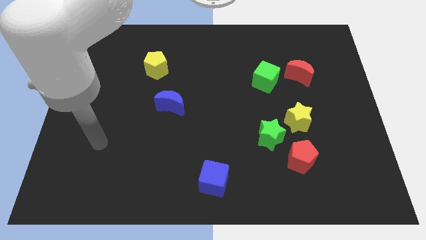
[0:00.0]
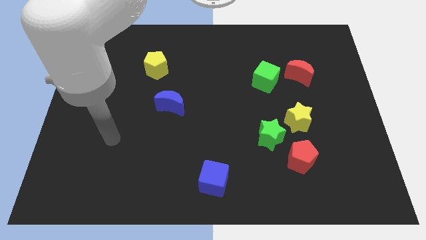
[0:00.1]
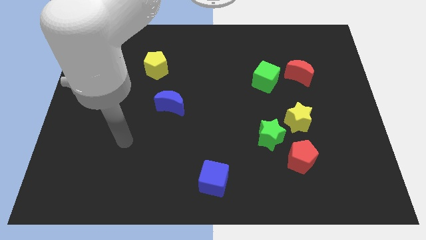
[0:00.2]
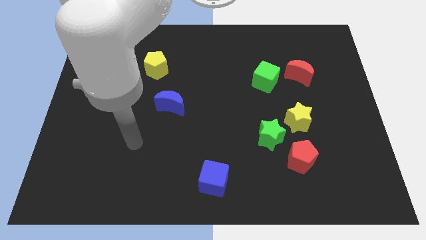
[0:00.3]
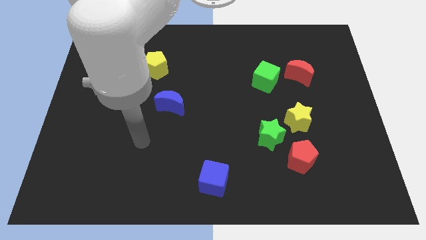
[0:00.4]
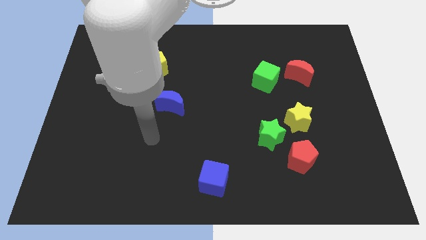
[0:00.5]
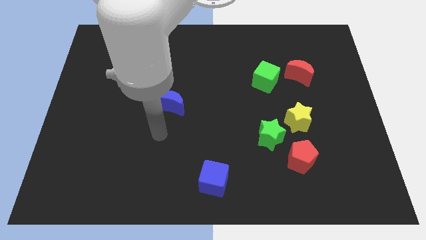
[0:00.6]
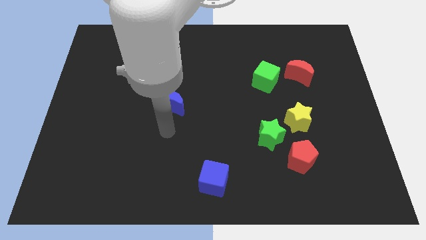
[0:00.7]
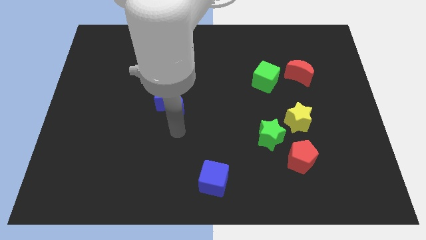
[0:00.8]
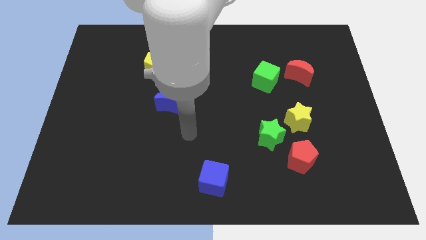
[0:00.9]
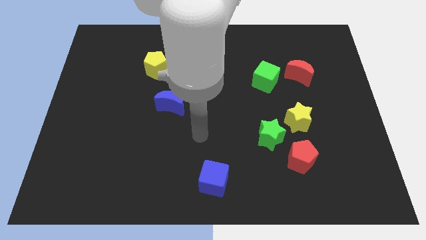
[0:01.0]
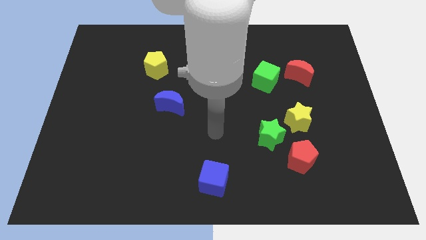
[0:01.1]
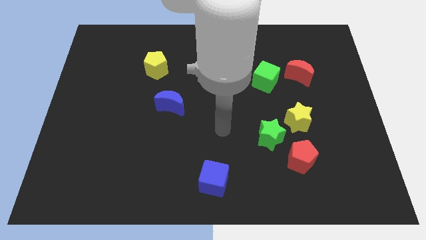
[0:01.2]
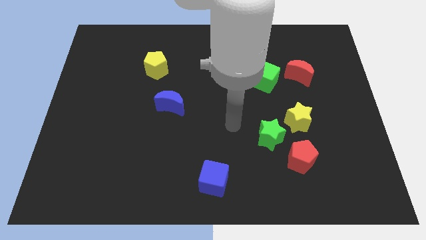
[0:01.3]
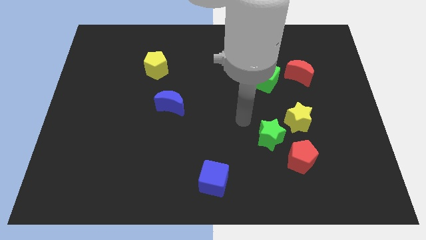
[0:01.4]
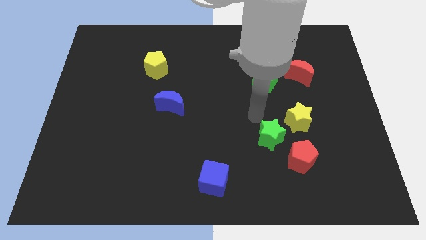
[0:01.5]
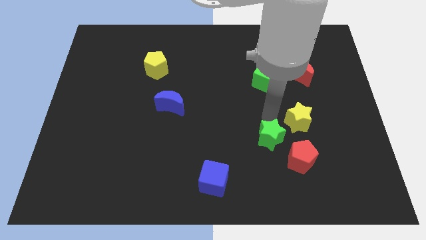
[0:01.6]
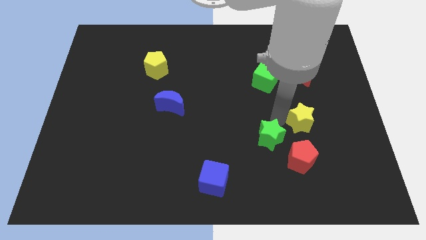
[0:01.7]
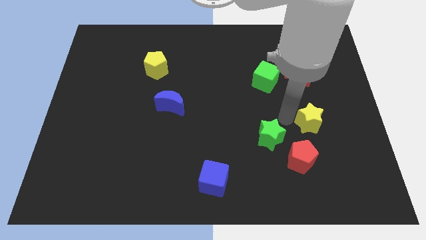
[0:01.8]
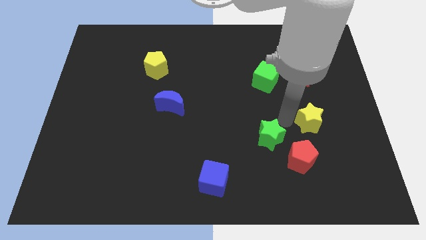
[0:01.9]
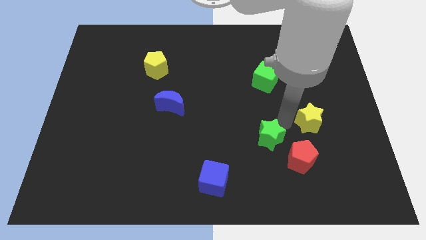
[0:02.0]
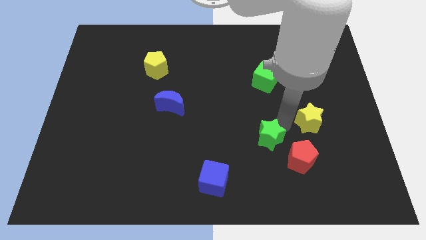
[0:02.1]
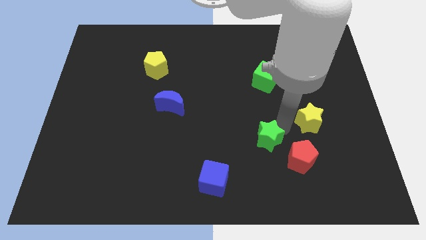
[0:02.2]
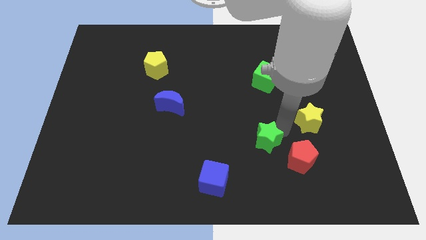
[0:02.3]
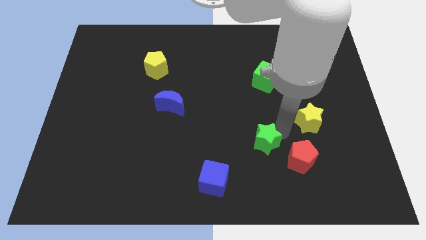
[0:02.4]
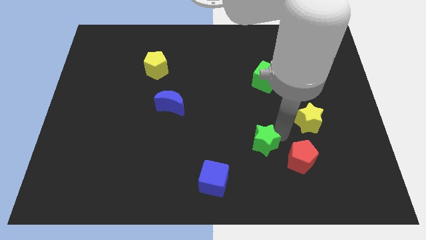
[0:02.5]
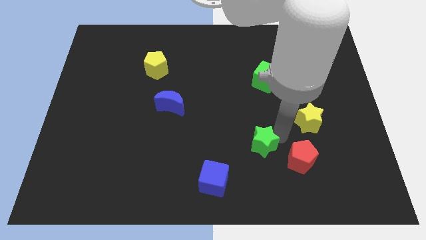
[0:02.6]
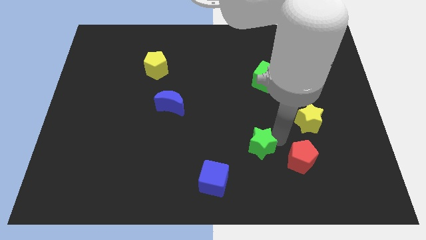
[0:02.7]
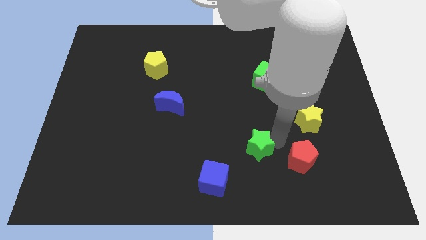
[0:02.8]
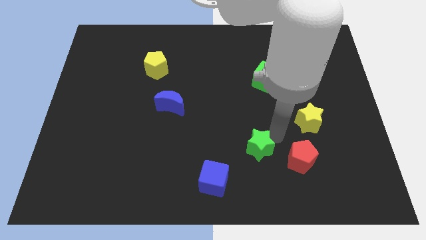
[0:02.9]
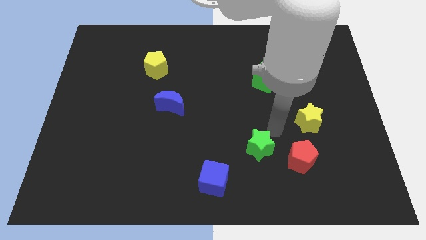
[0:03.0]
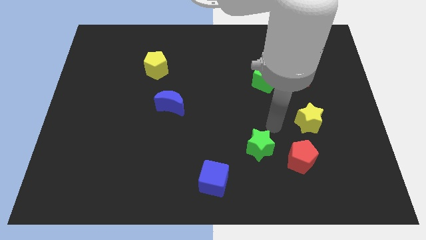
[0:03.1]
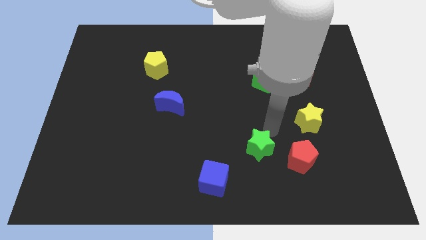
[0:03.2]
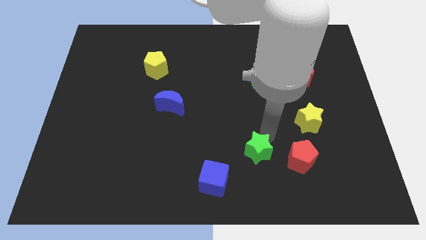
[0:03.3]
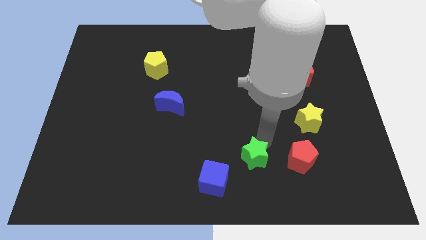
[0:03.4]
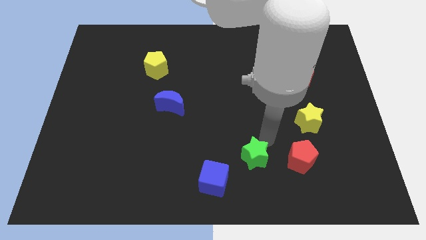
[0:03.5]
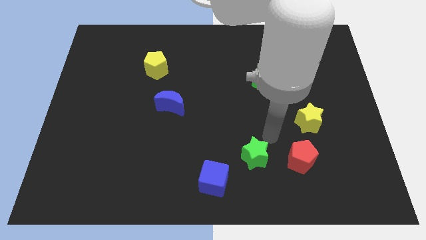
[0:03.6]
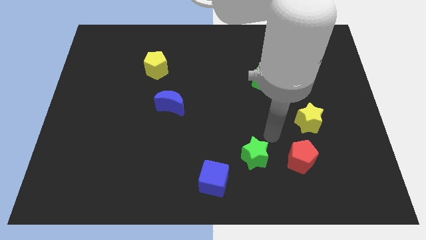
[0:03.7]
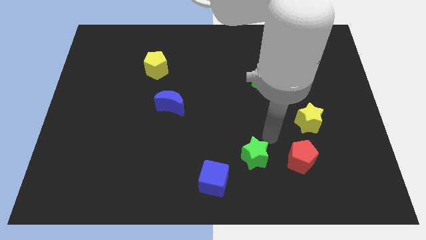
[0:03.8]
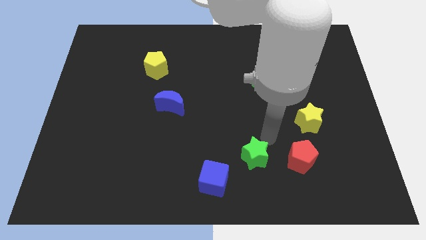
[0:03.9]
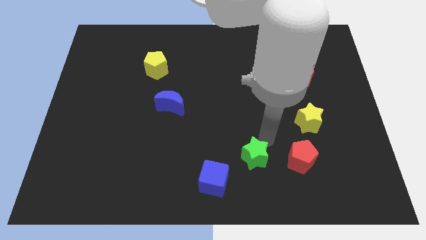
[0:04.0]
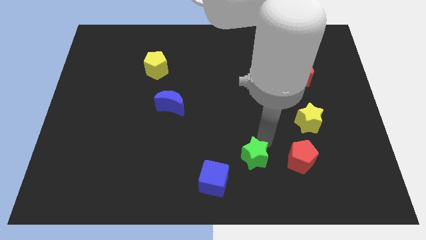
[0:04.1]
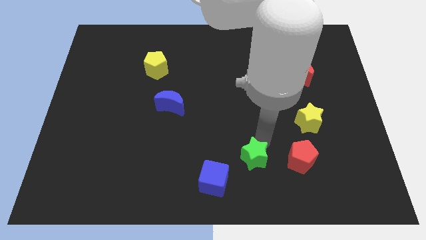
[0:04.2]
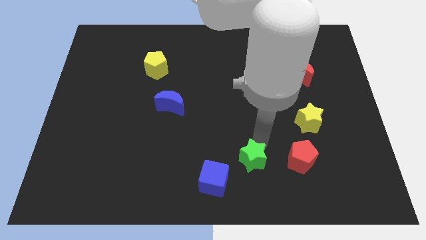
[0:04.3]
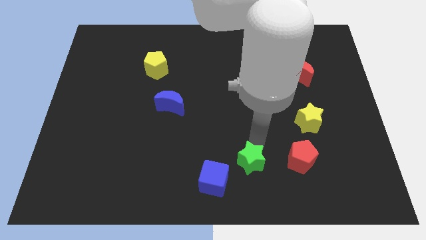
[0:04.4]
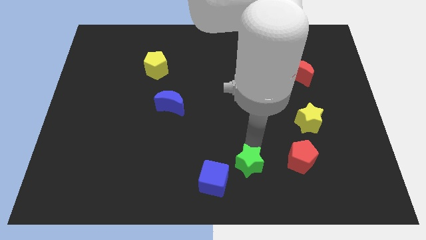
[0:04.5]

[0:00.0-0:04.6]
put the green star to the bottom

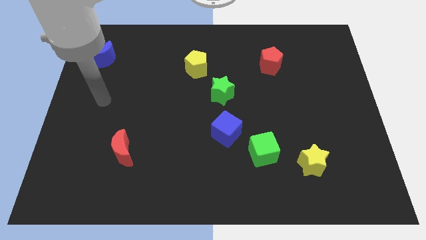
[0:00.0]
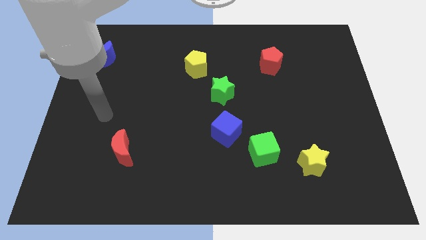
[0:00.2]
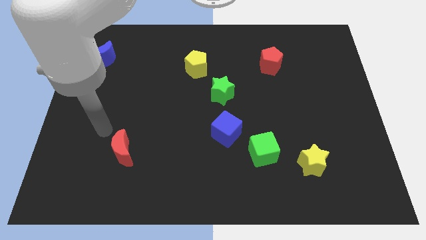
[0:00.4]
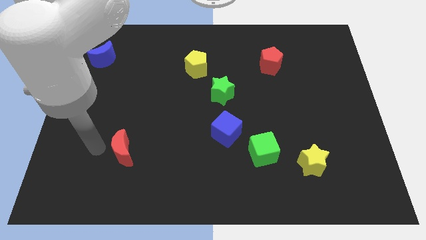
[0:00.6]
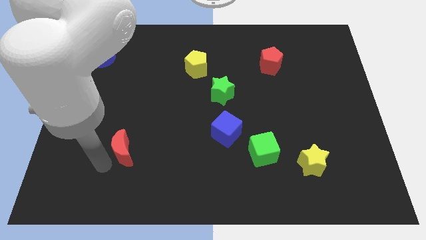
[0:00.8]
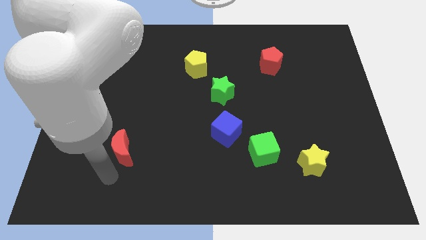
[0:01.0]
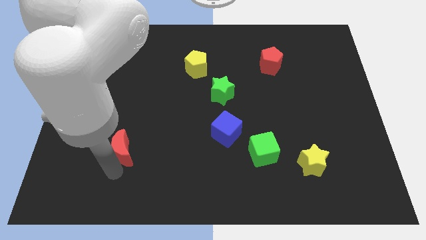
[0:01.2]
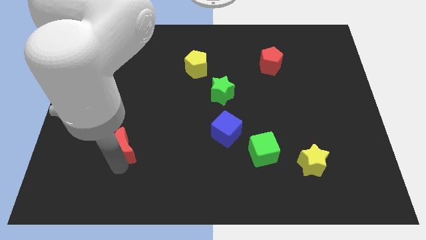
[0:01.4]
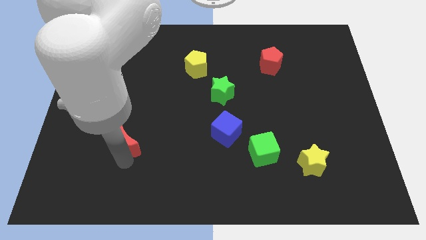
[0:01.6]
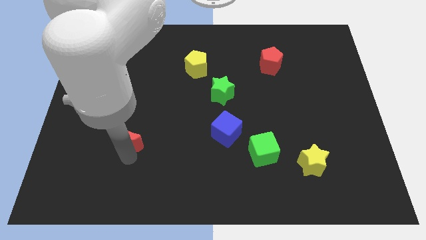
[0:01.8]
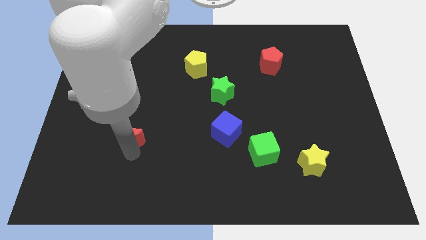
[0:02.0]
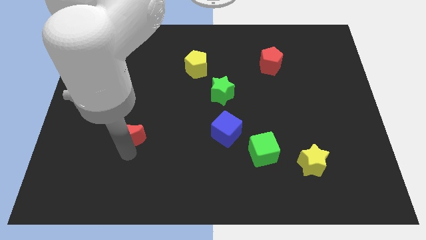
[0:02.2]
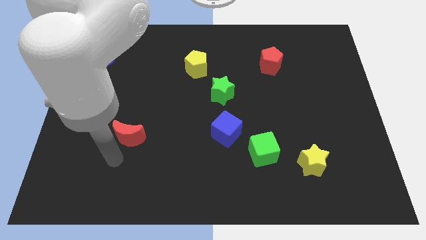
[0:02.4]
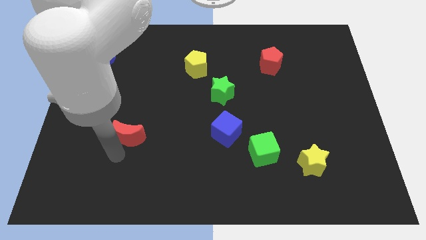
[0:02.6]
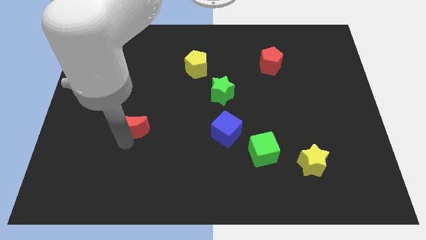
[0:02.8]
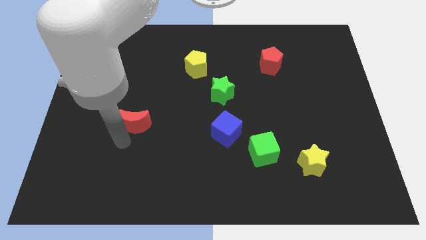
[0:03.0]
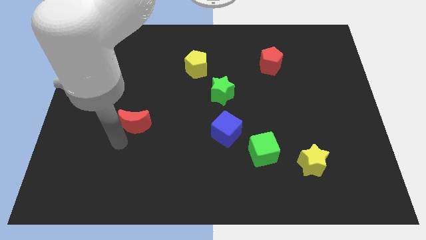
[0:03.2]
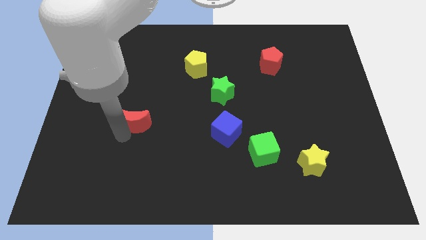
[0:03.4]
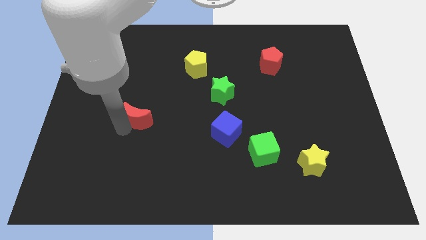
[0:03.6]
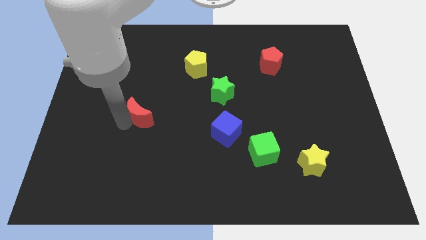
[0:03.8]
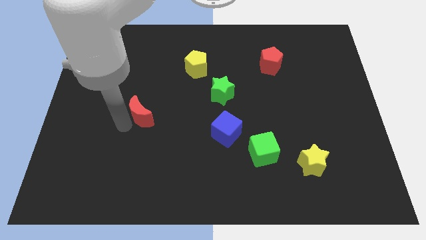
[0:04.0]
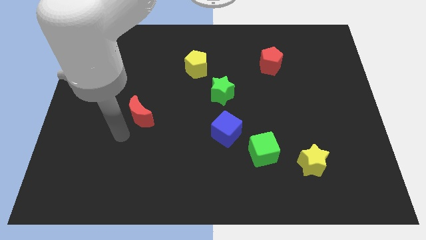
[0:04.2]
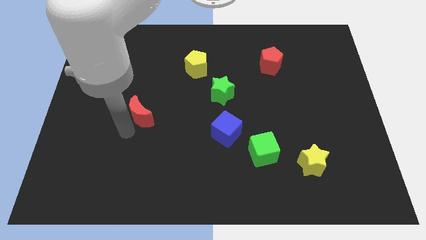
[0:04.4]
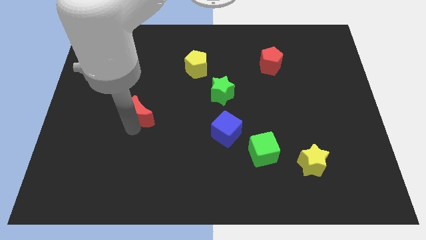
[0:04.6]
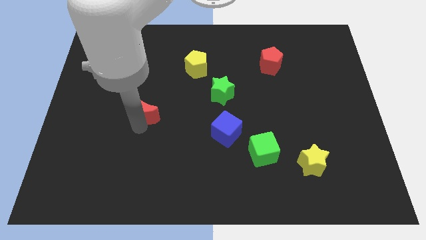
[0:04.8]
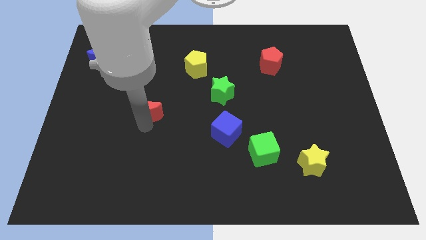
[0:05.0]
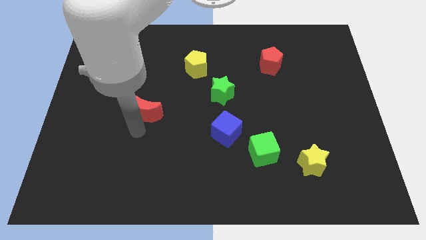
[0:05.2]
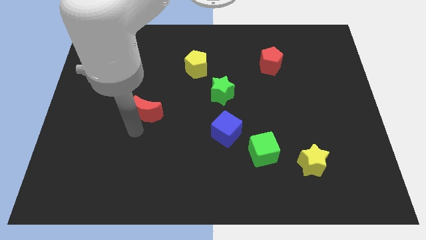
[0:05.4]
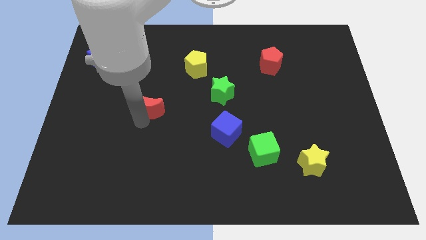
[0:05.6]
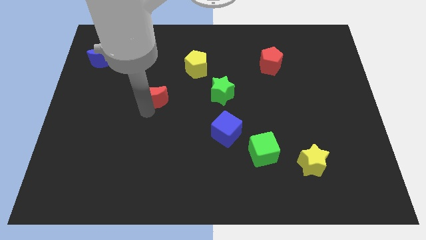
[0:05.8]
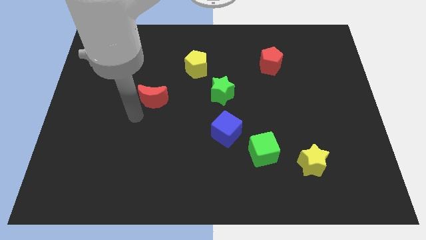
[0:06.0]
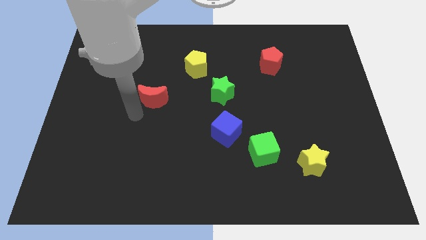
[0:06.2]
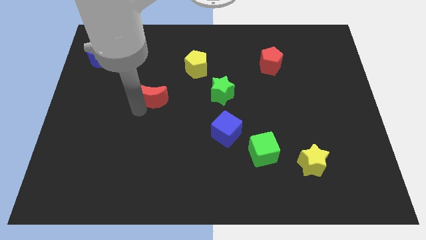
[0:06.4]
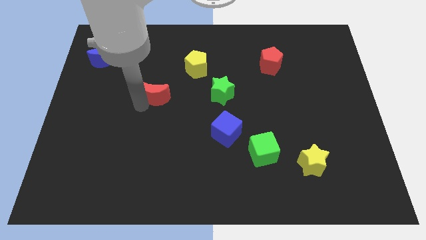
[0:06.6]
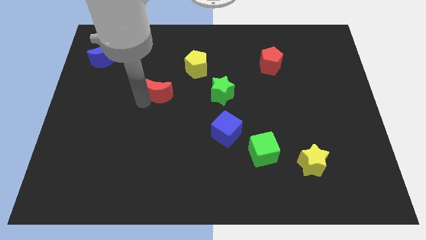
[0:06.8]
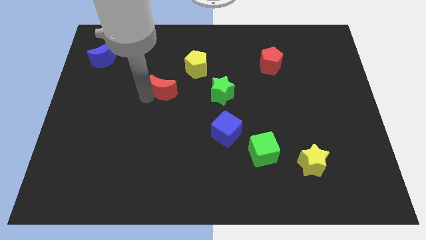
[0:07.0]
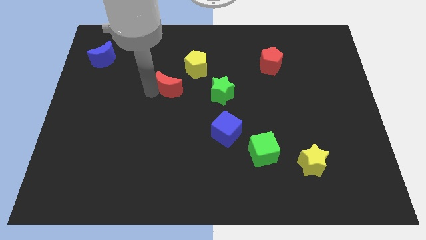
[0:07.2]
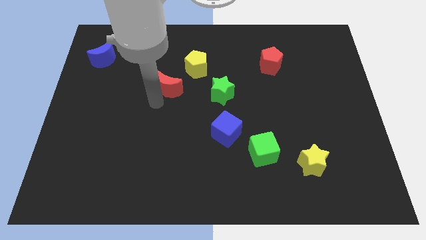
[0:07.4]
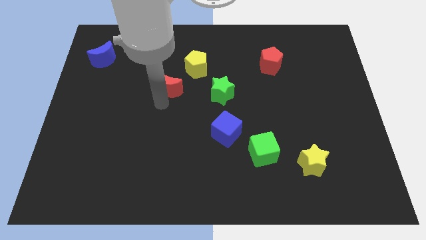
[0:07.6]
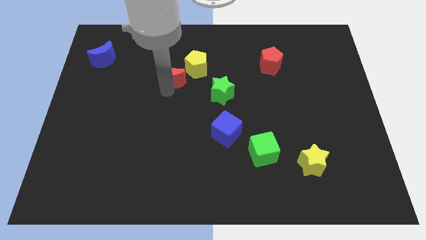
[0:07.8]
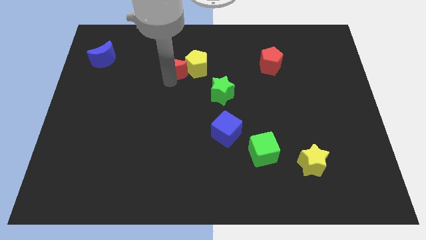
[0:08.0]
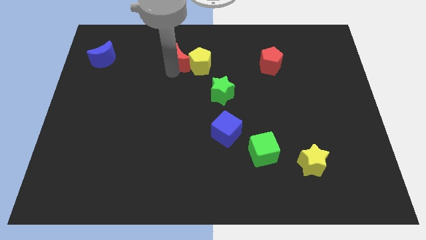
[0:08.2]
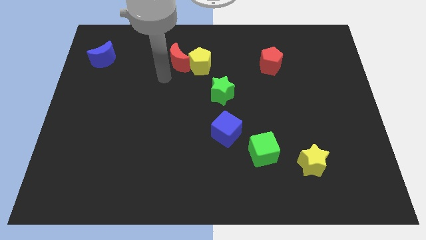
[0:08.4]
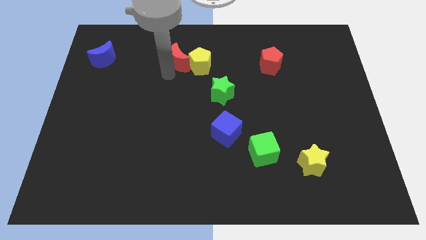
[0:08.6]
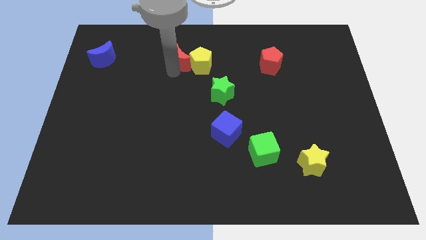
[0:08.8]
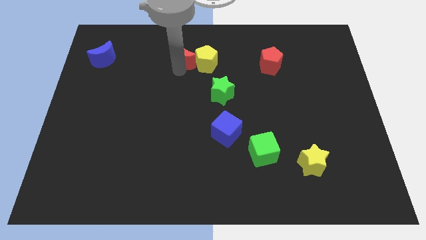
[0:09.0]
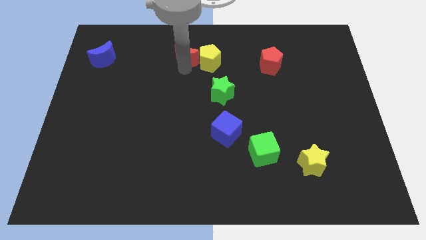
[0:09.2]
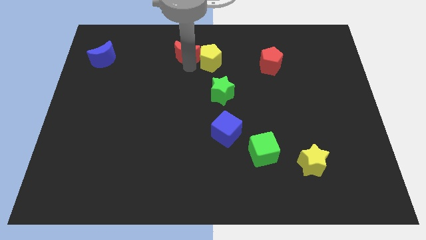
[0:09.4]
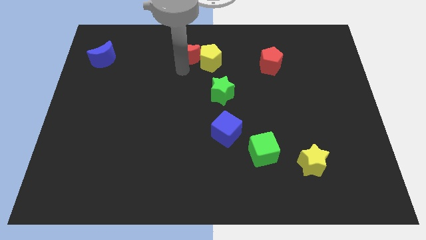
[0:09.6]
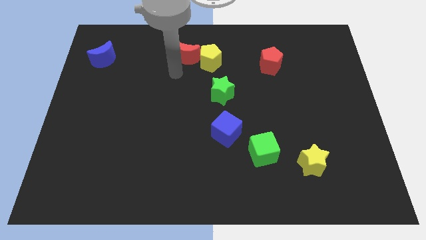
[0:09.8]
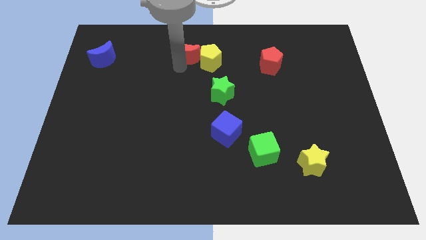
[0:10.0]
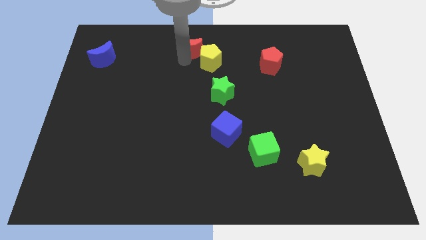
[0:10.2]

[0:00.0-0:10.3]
put the red moon to the top side
